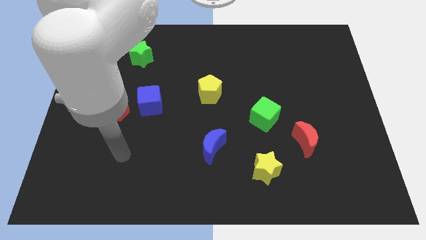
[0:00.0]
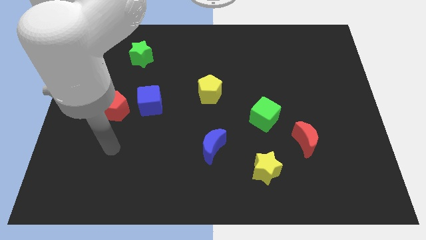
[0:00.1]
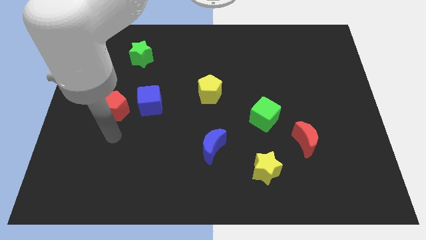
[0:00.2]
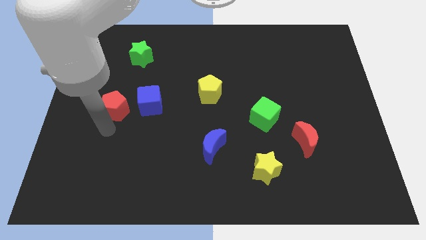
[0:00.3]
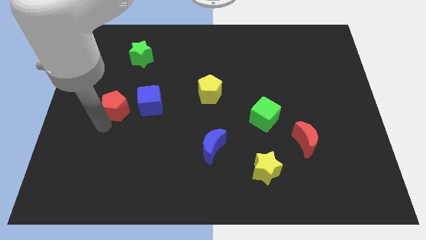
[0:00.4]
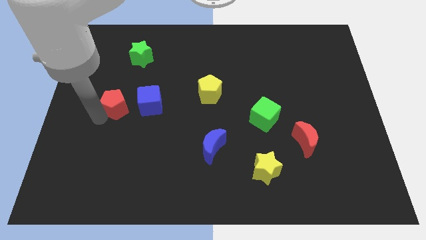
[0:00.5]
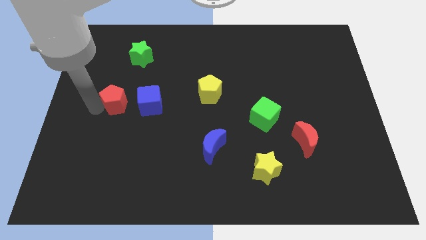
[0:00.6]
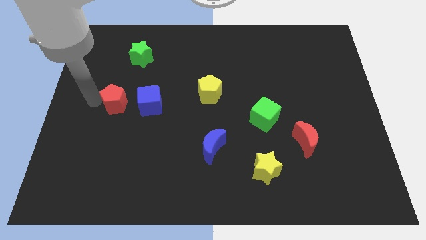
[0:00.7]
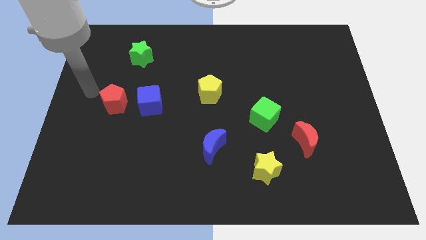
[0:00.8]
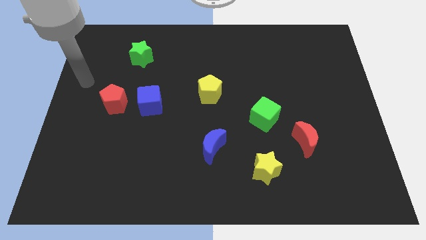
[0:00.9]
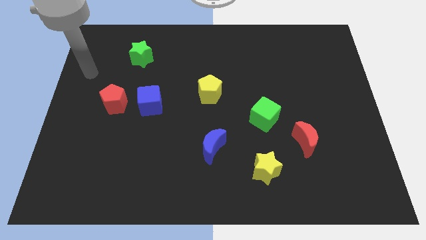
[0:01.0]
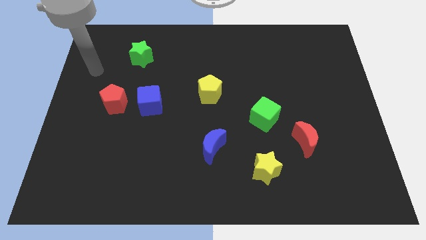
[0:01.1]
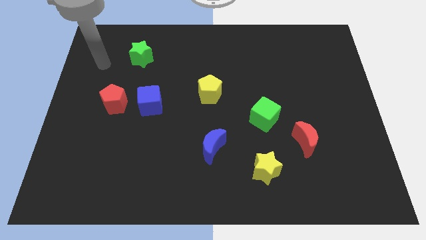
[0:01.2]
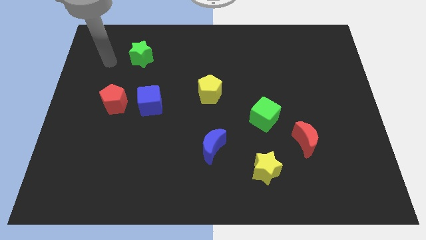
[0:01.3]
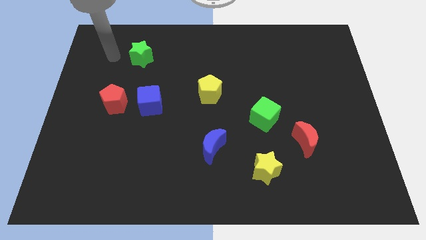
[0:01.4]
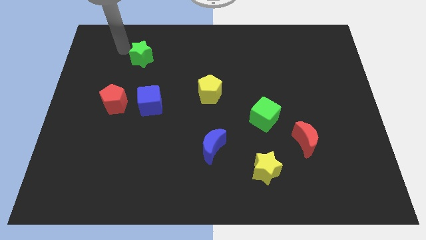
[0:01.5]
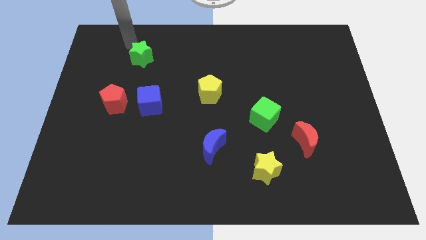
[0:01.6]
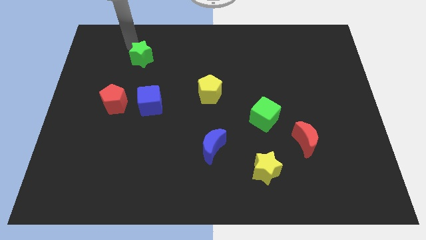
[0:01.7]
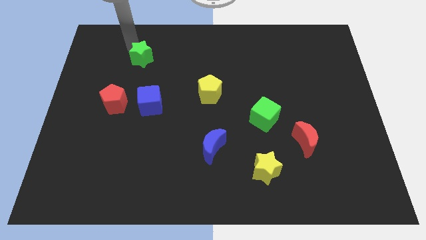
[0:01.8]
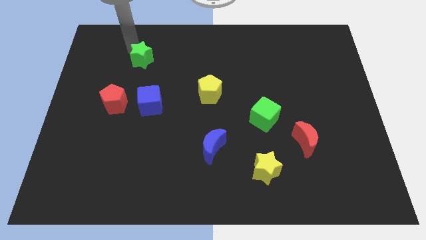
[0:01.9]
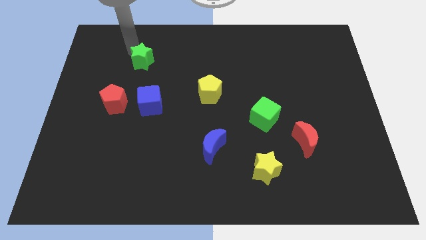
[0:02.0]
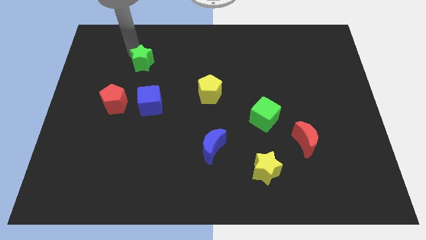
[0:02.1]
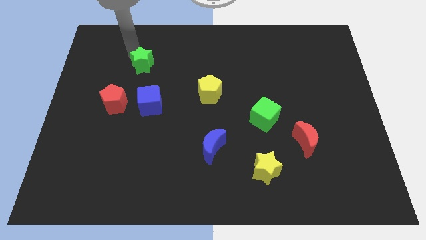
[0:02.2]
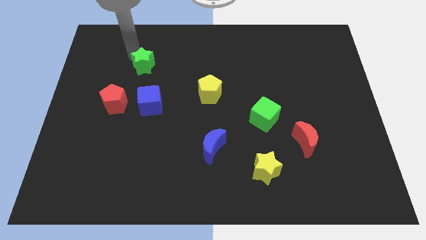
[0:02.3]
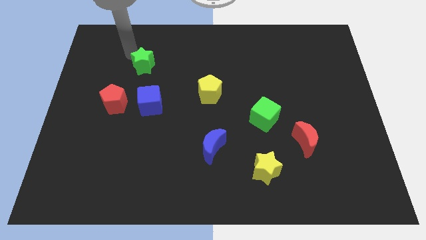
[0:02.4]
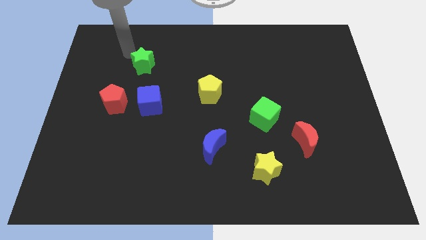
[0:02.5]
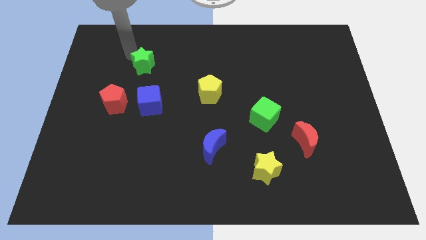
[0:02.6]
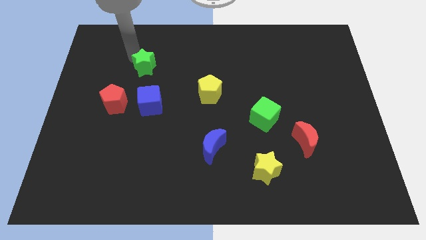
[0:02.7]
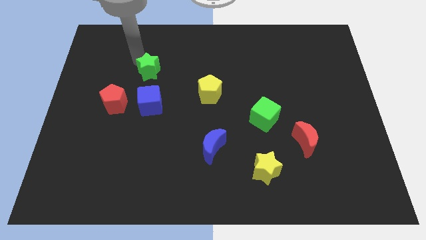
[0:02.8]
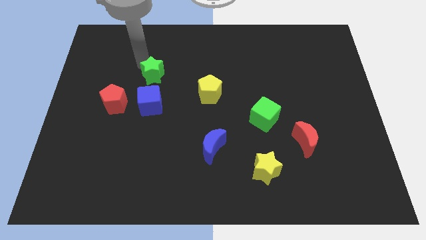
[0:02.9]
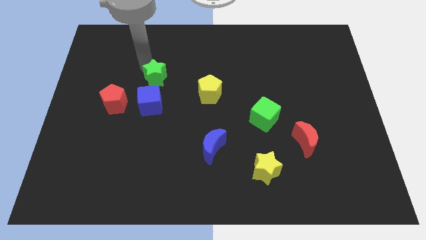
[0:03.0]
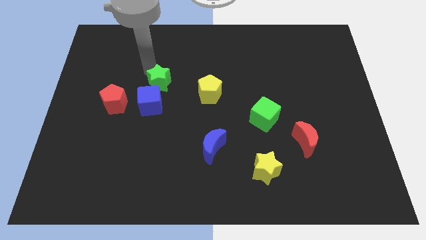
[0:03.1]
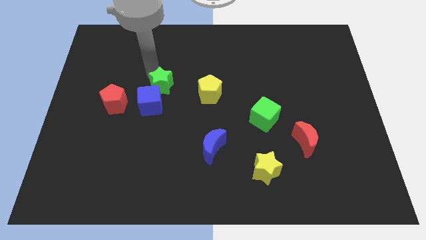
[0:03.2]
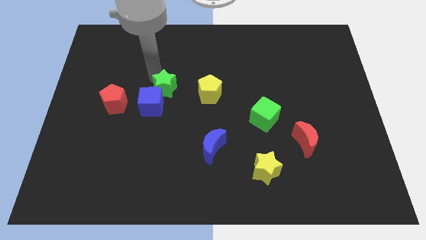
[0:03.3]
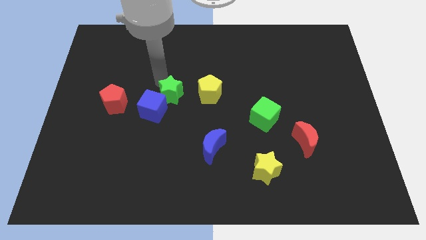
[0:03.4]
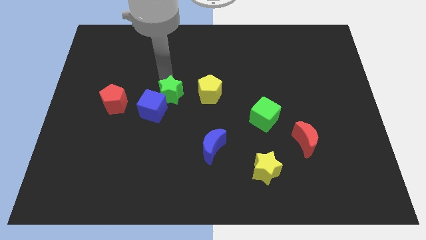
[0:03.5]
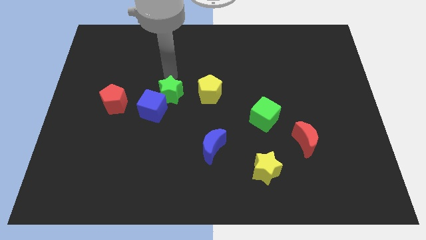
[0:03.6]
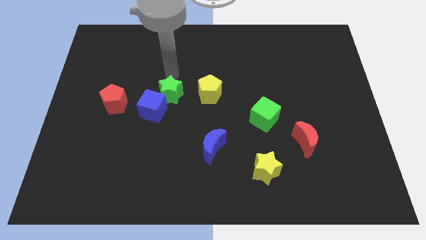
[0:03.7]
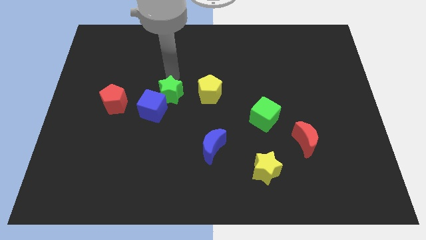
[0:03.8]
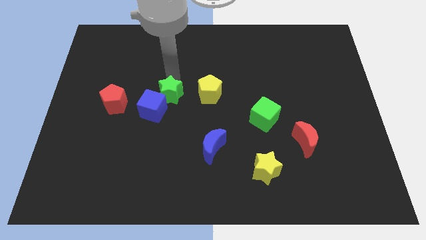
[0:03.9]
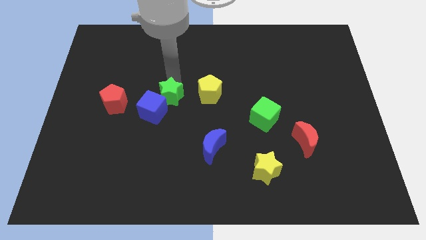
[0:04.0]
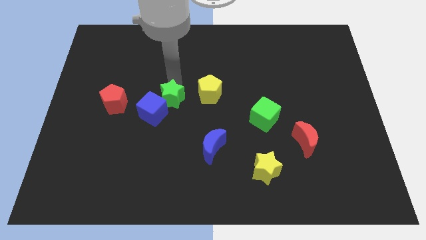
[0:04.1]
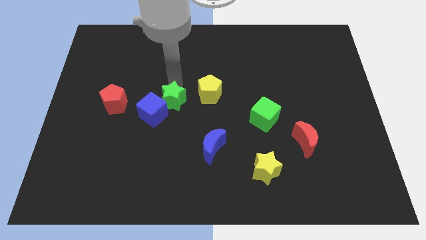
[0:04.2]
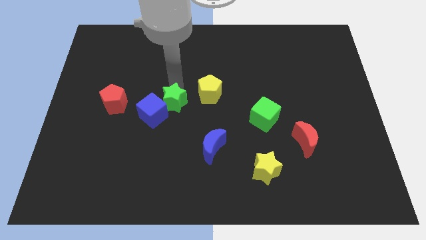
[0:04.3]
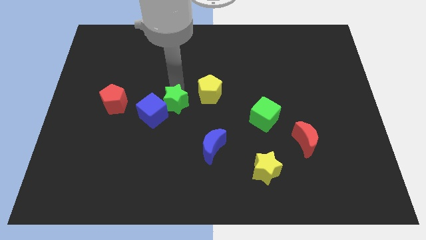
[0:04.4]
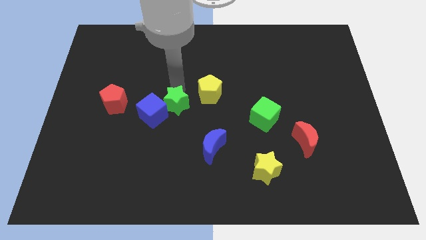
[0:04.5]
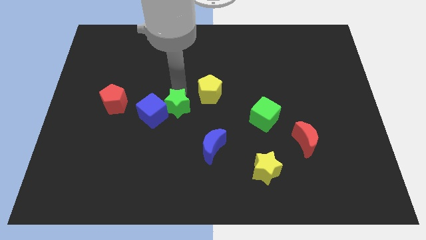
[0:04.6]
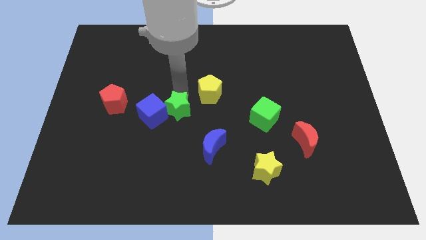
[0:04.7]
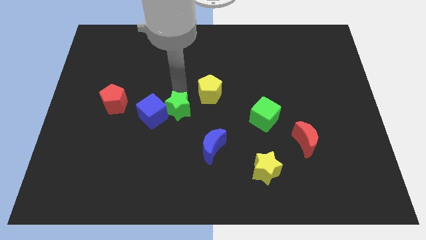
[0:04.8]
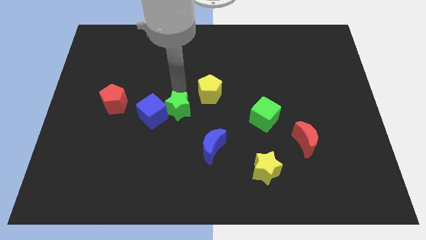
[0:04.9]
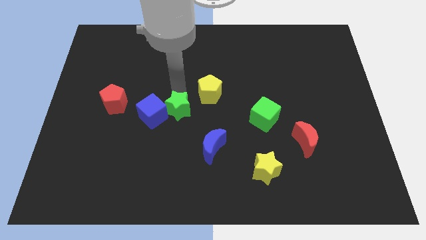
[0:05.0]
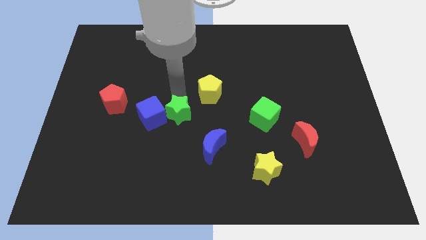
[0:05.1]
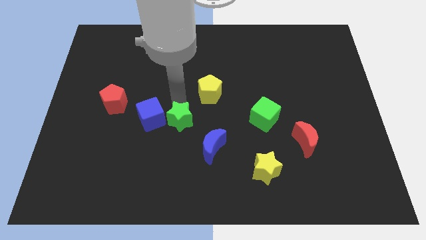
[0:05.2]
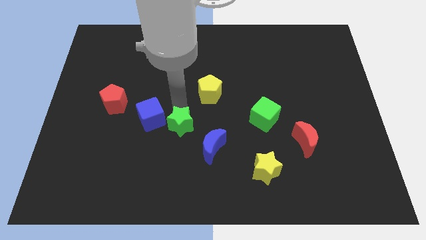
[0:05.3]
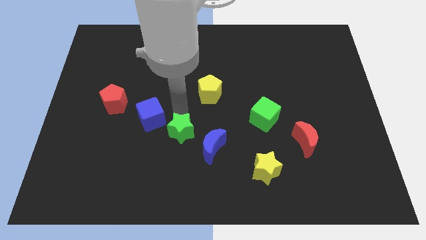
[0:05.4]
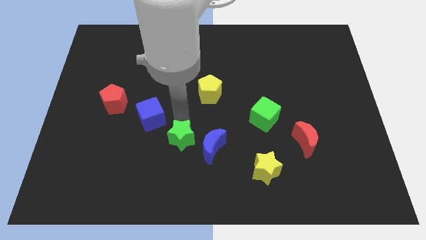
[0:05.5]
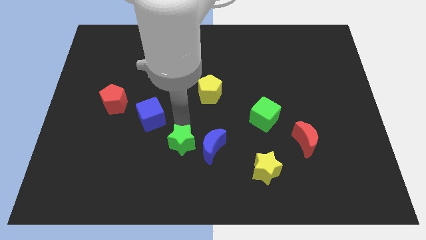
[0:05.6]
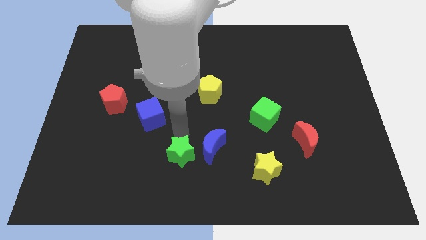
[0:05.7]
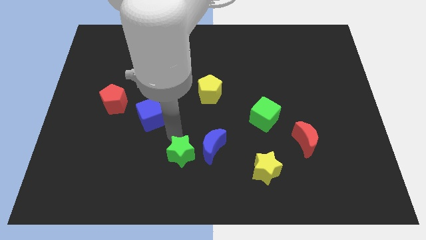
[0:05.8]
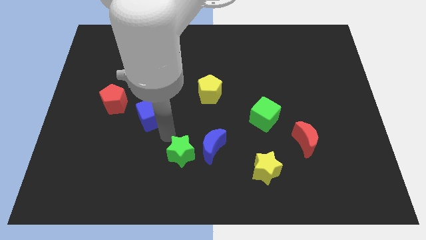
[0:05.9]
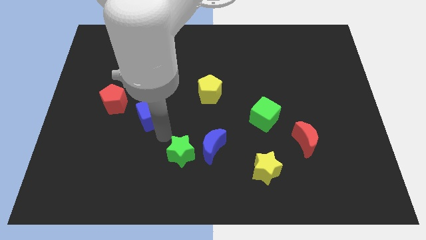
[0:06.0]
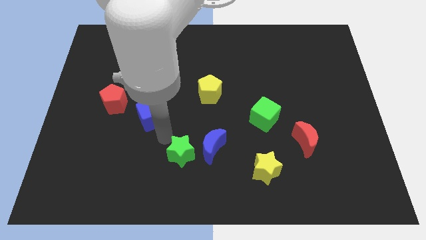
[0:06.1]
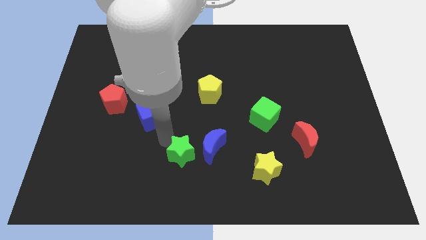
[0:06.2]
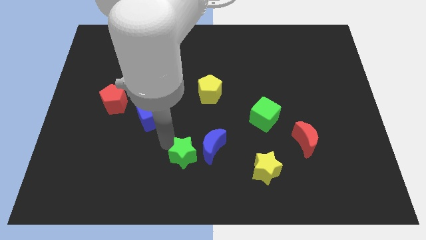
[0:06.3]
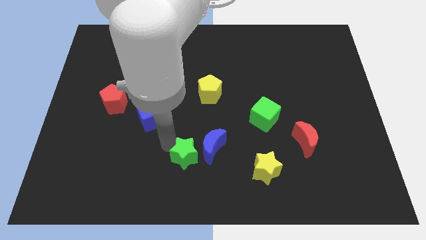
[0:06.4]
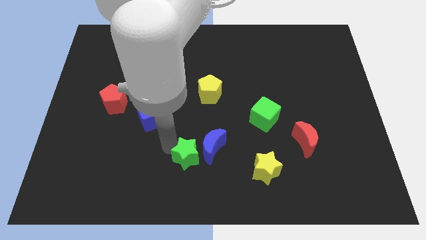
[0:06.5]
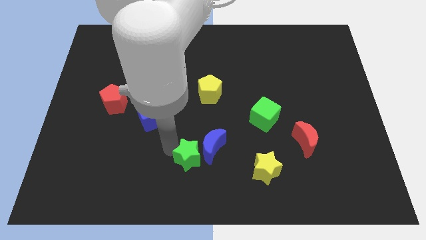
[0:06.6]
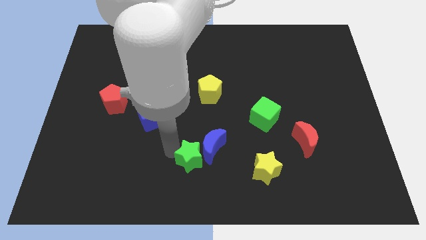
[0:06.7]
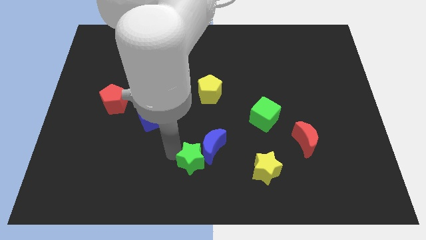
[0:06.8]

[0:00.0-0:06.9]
move the green star to the left of the yellow star

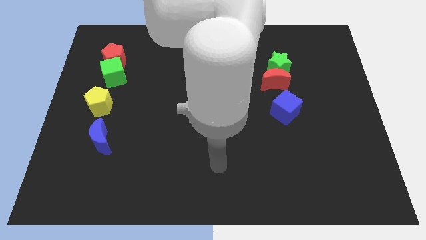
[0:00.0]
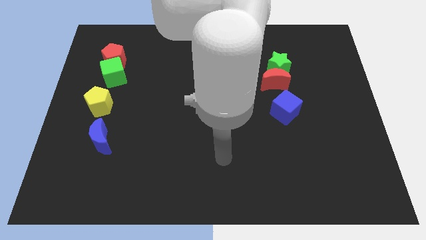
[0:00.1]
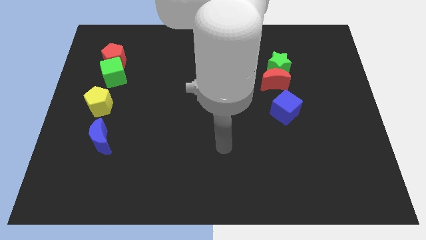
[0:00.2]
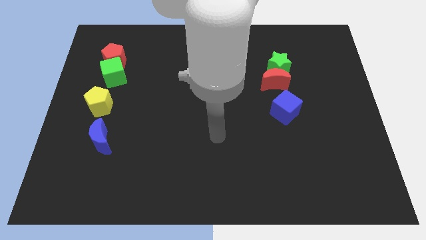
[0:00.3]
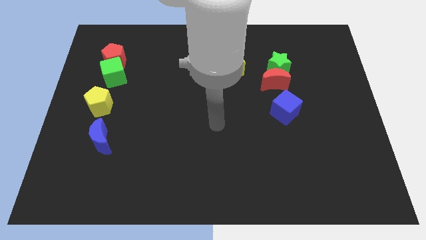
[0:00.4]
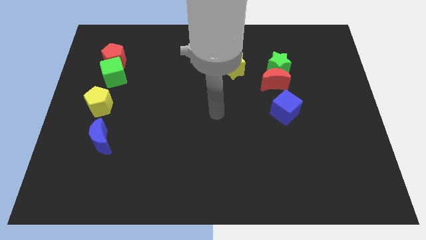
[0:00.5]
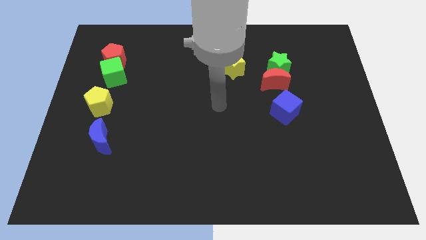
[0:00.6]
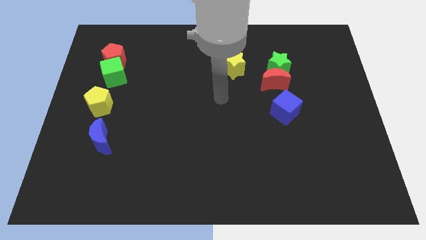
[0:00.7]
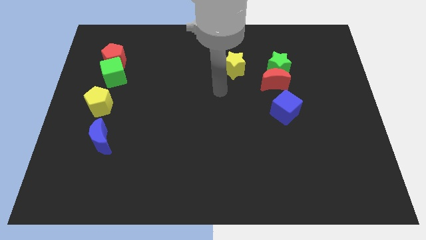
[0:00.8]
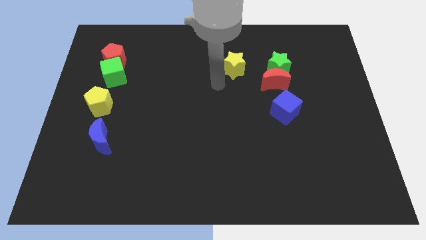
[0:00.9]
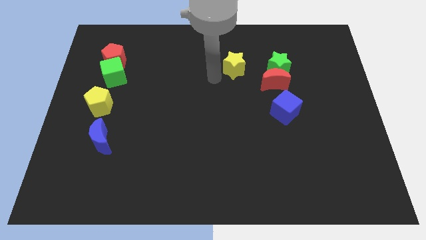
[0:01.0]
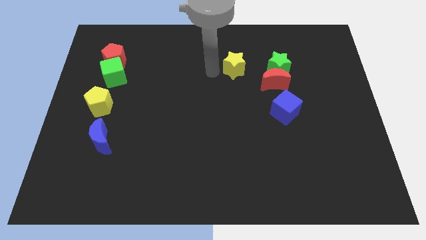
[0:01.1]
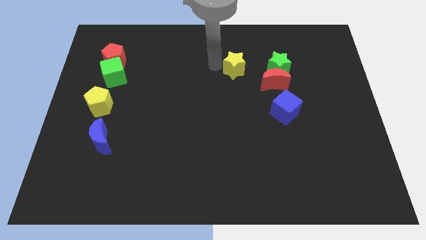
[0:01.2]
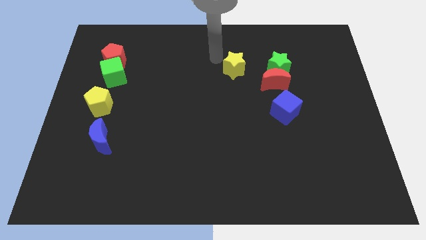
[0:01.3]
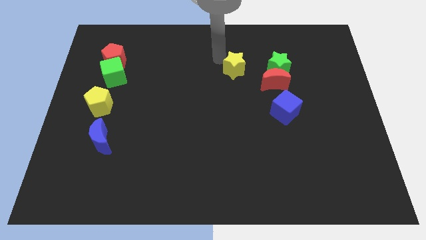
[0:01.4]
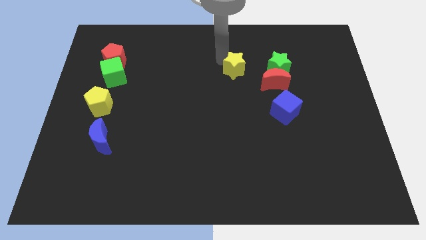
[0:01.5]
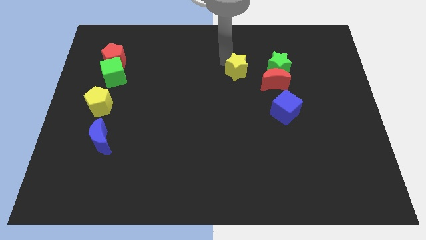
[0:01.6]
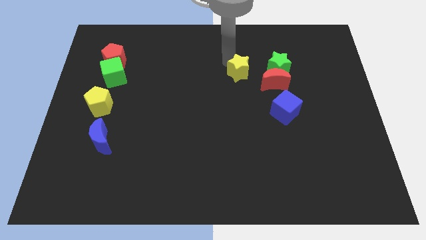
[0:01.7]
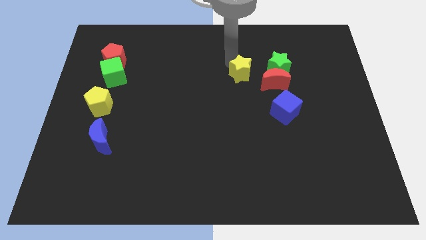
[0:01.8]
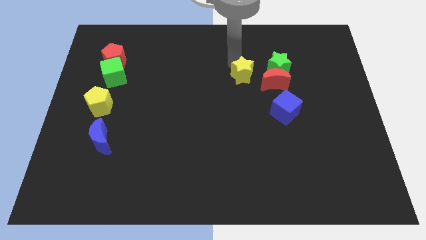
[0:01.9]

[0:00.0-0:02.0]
put the yellow star to the bottom left of the green star
